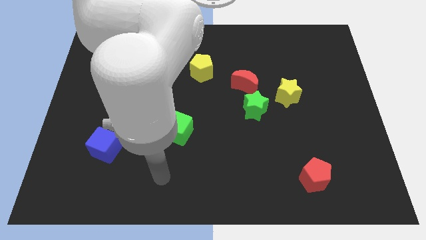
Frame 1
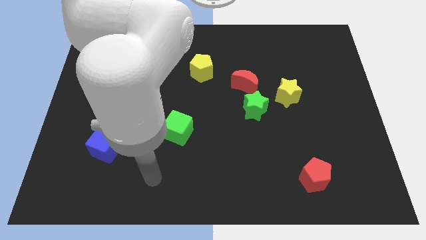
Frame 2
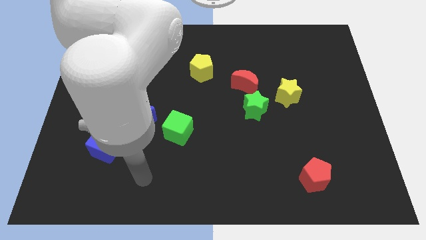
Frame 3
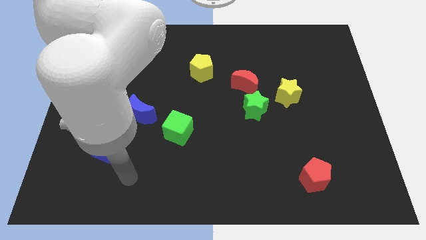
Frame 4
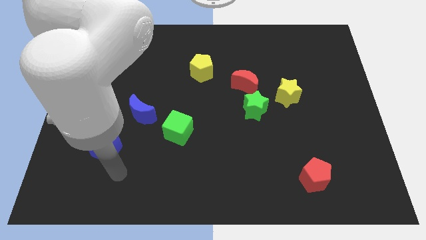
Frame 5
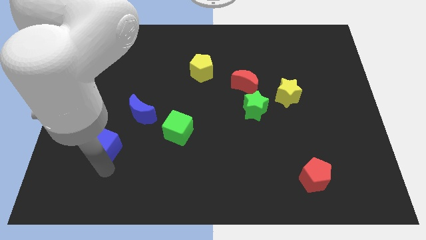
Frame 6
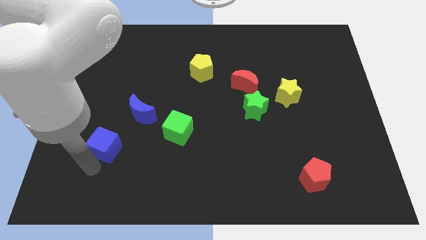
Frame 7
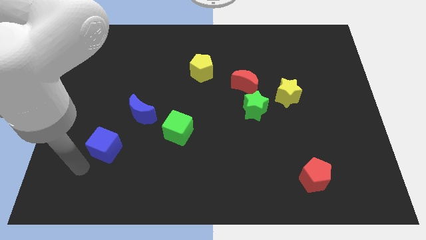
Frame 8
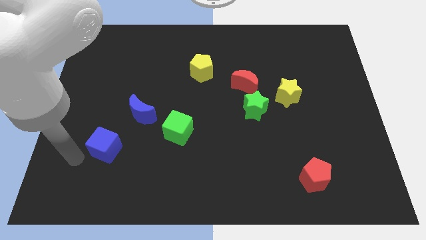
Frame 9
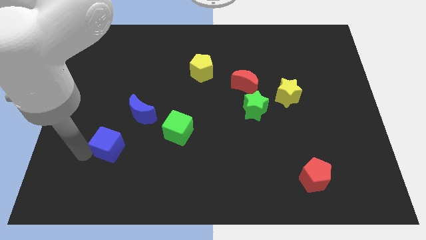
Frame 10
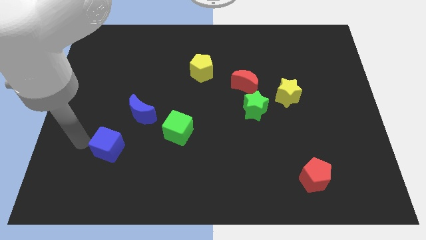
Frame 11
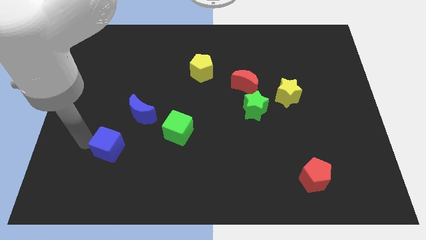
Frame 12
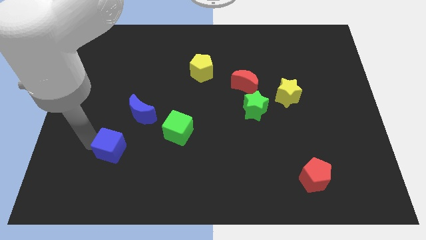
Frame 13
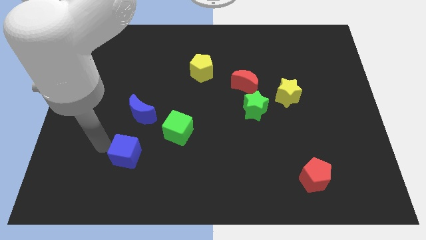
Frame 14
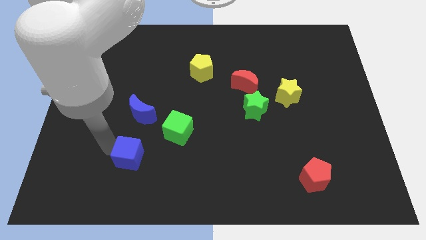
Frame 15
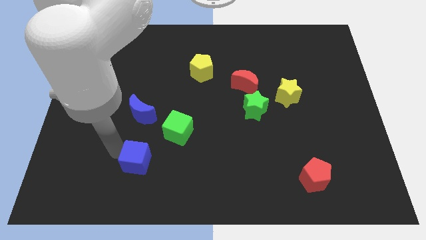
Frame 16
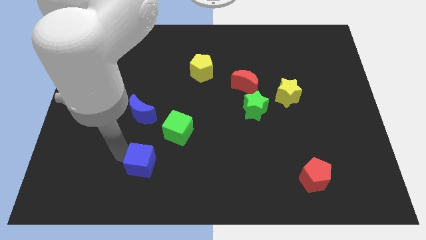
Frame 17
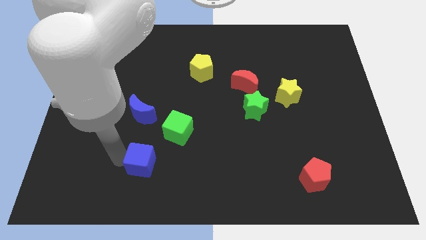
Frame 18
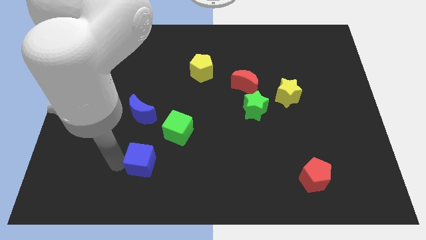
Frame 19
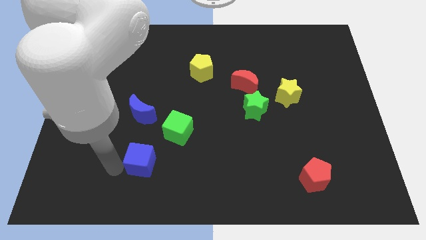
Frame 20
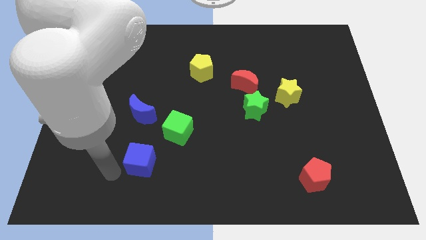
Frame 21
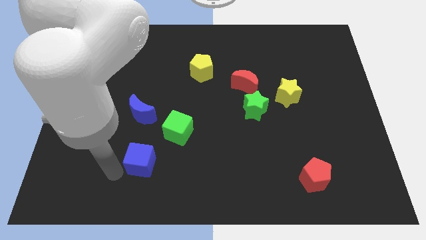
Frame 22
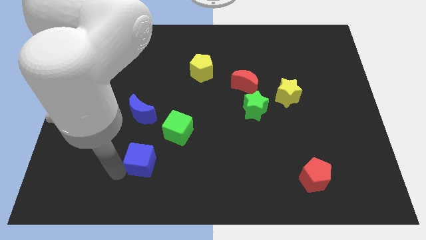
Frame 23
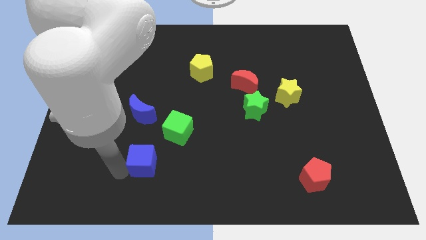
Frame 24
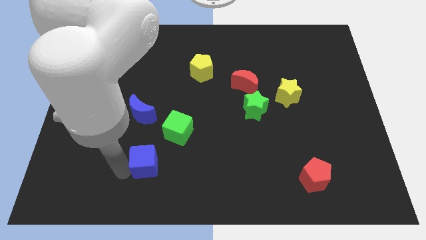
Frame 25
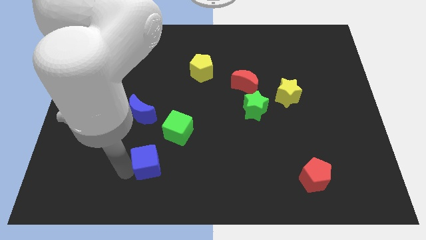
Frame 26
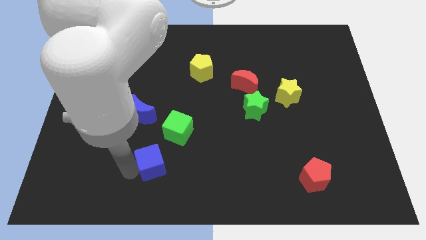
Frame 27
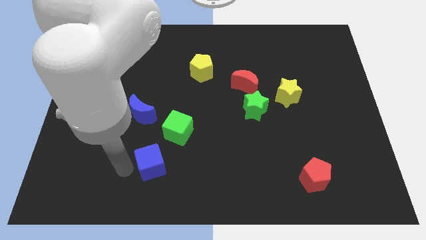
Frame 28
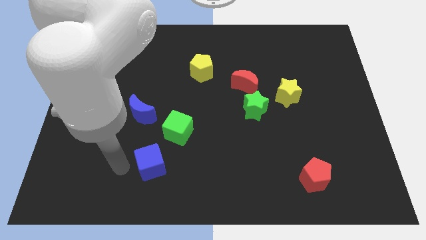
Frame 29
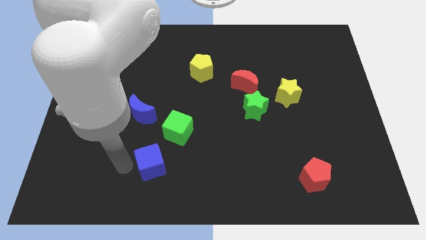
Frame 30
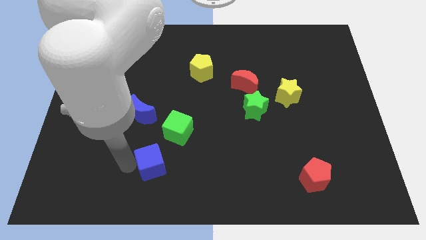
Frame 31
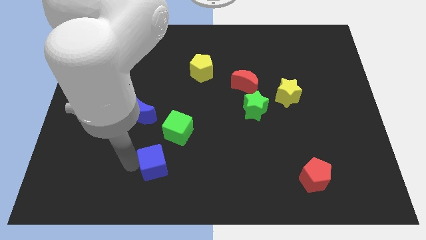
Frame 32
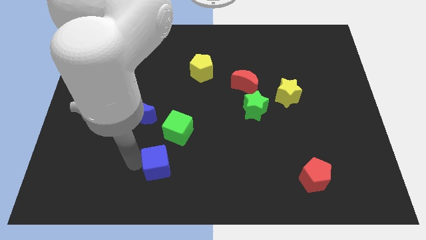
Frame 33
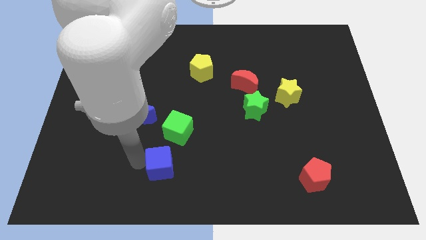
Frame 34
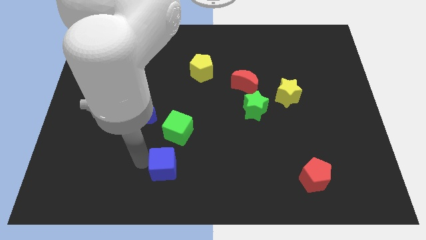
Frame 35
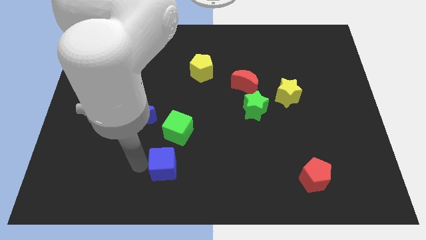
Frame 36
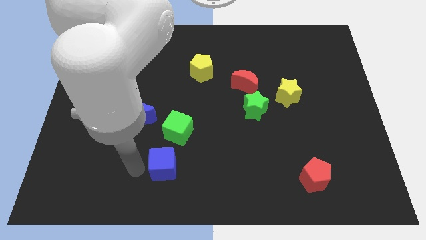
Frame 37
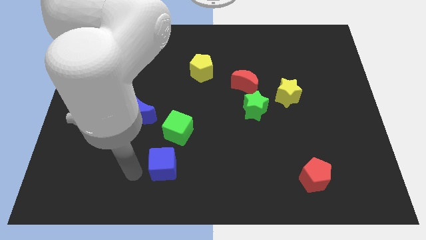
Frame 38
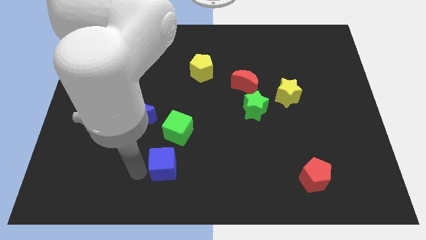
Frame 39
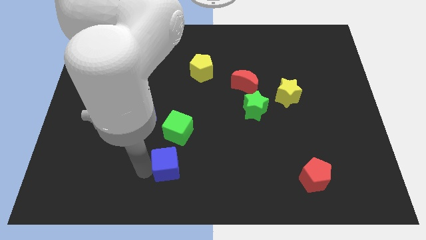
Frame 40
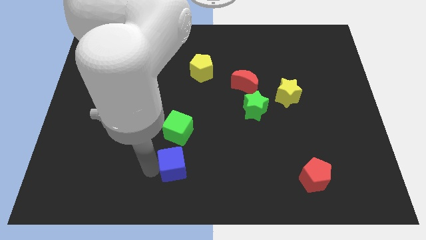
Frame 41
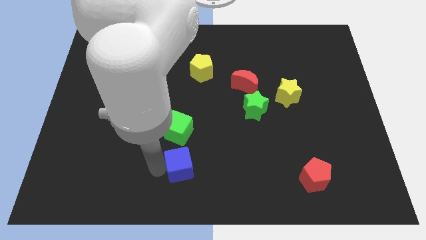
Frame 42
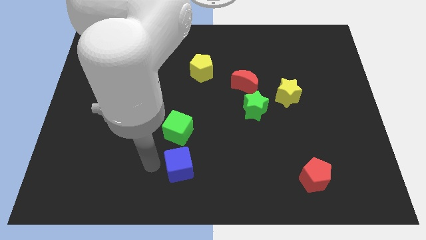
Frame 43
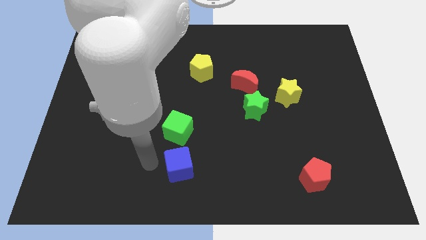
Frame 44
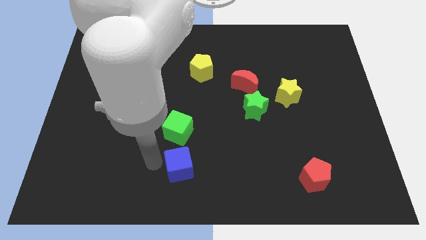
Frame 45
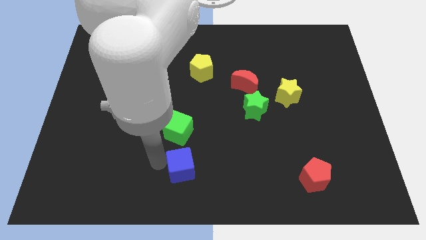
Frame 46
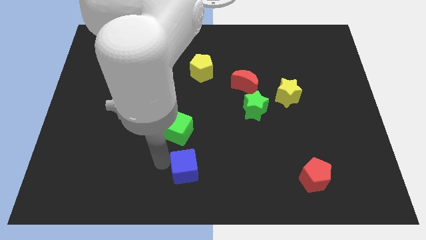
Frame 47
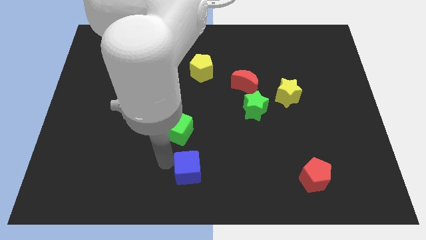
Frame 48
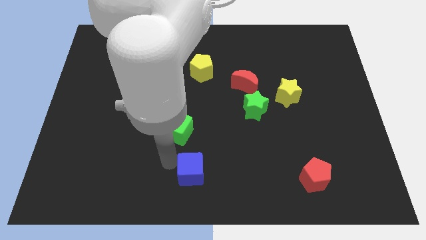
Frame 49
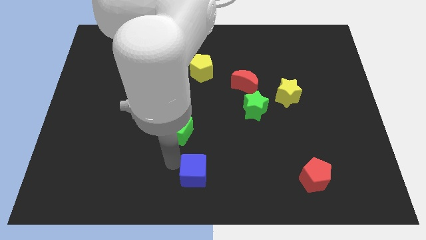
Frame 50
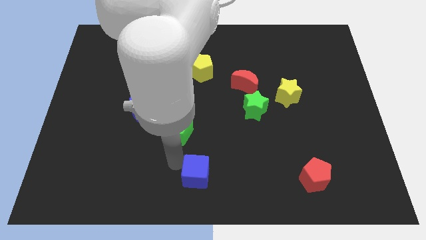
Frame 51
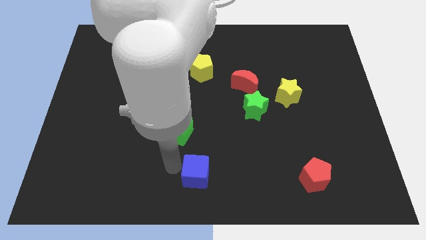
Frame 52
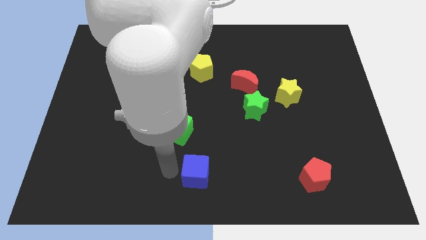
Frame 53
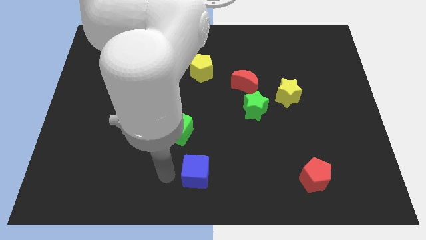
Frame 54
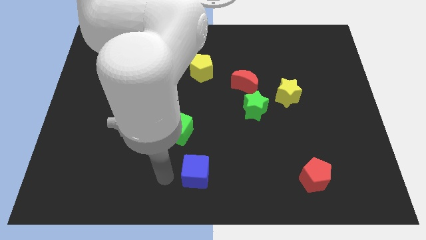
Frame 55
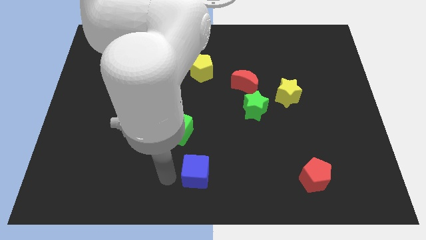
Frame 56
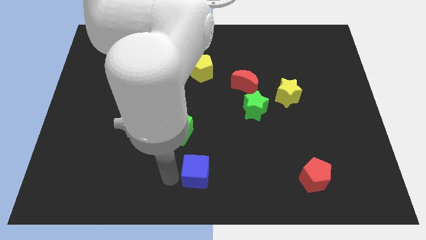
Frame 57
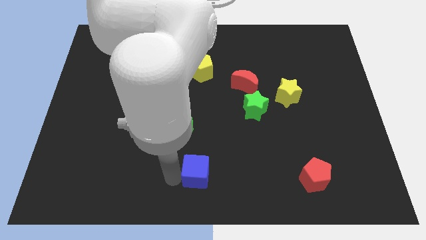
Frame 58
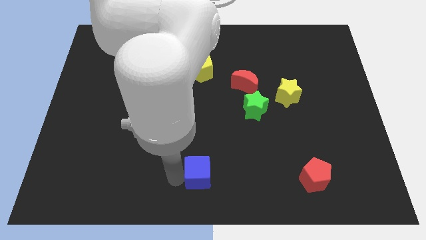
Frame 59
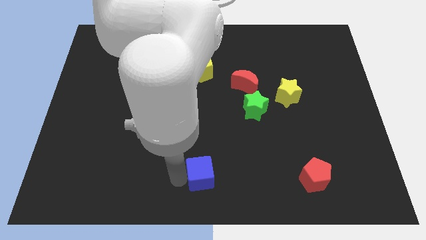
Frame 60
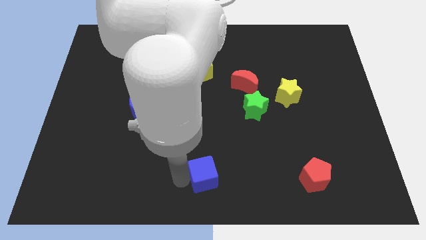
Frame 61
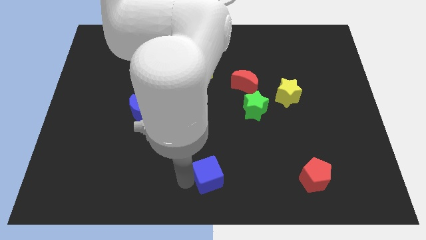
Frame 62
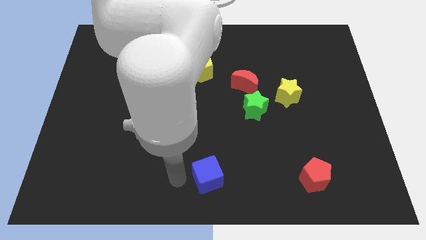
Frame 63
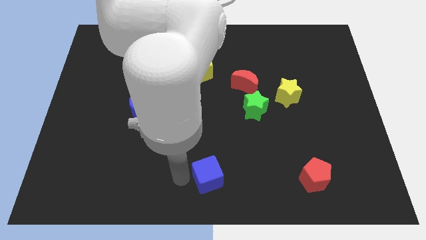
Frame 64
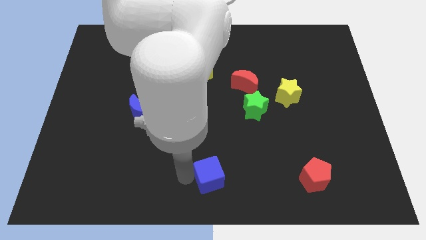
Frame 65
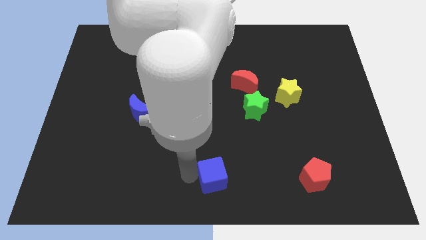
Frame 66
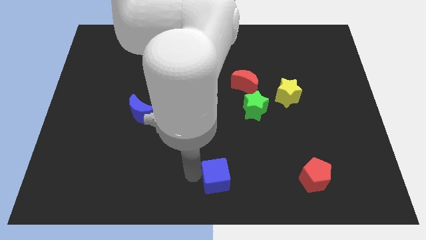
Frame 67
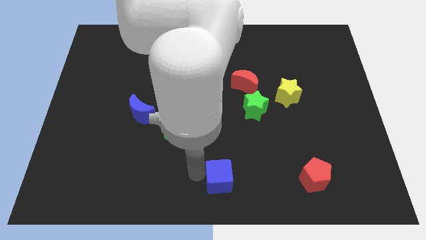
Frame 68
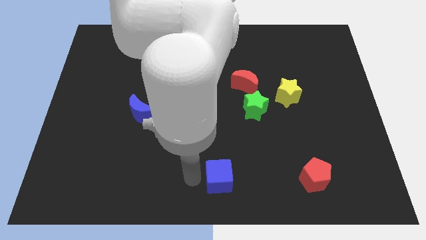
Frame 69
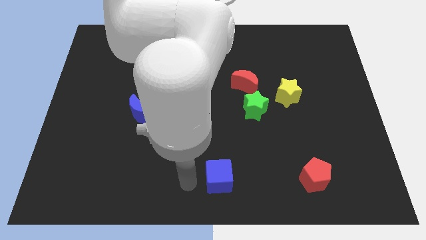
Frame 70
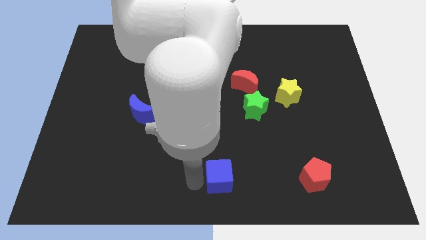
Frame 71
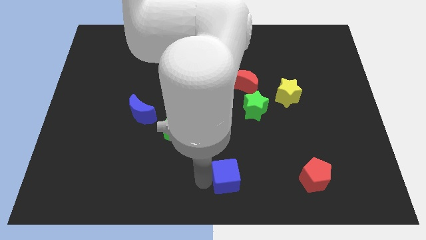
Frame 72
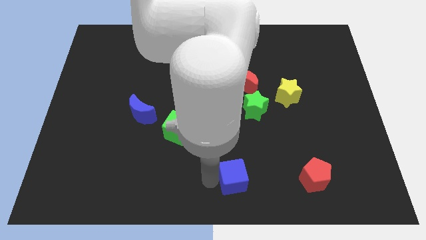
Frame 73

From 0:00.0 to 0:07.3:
push the blue cube to the left side of the red pentagon

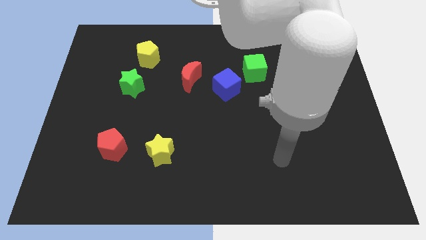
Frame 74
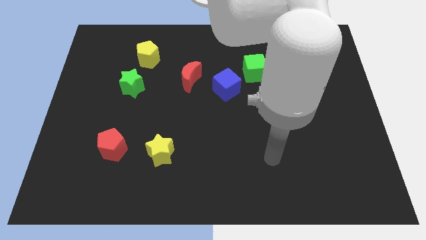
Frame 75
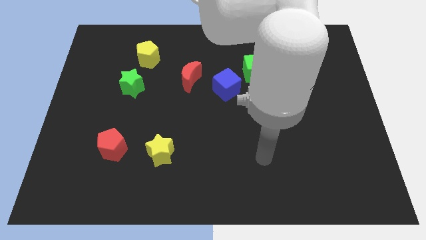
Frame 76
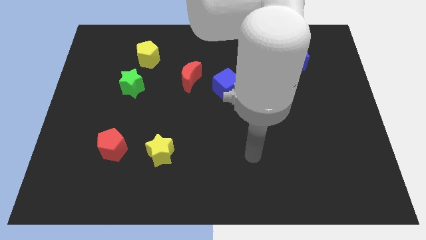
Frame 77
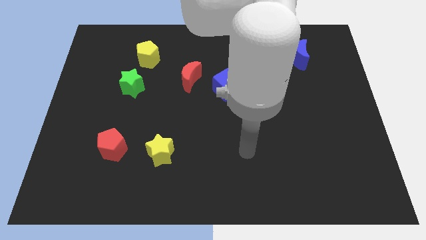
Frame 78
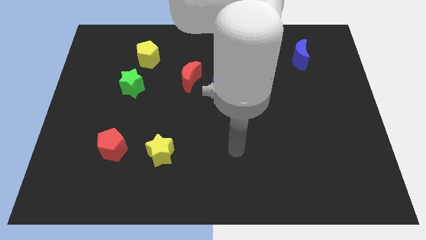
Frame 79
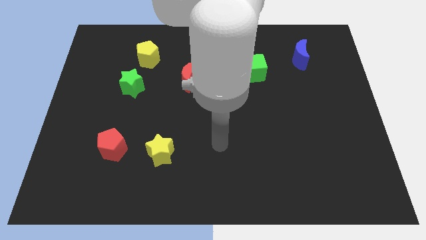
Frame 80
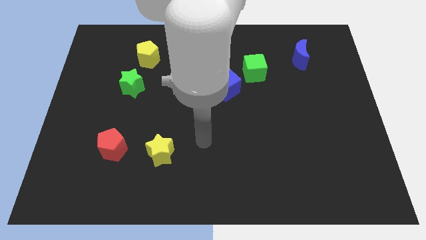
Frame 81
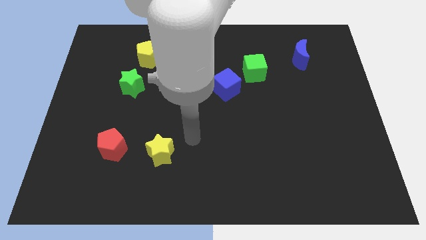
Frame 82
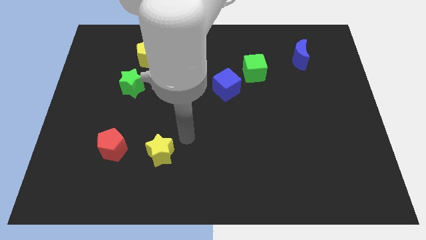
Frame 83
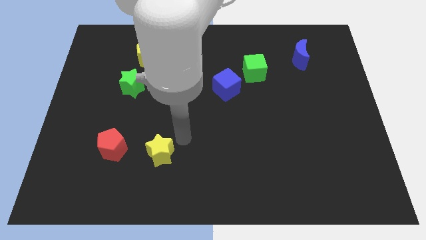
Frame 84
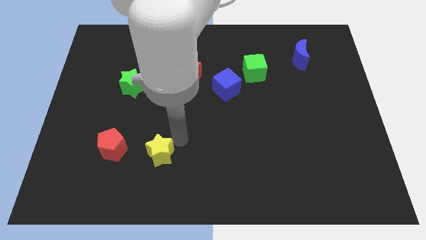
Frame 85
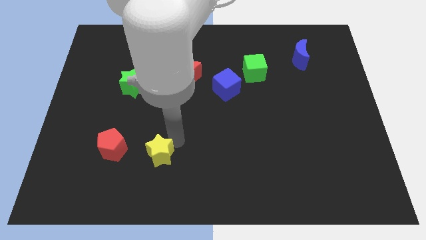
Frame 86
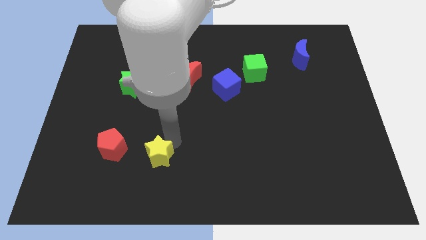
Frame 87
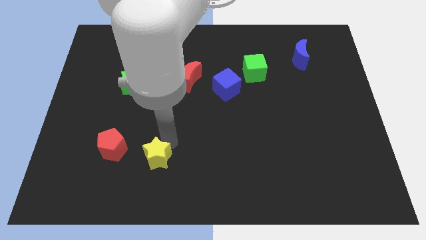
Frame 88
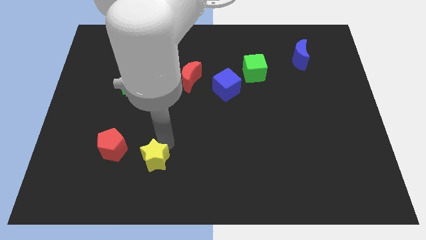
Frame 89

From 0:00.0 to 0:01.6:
put the yellow star to the bottom right side of the red pentagon
